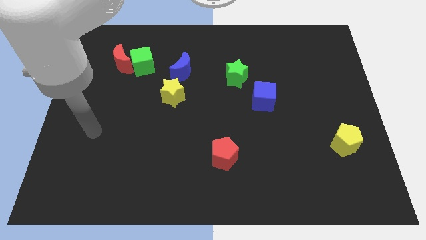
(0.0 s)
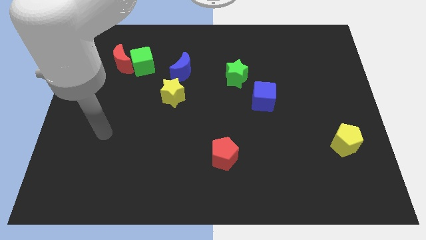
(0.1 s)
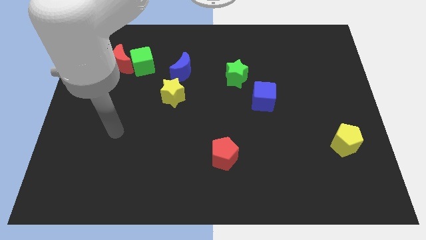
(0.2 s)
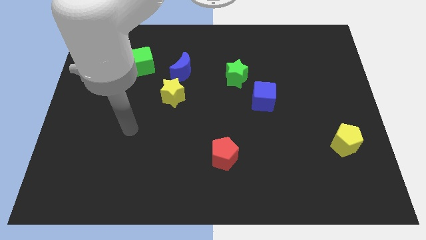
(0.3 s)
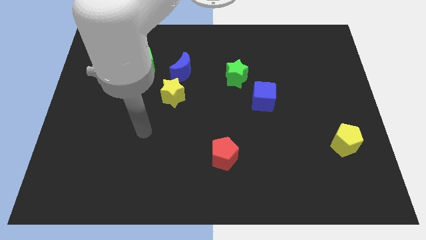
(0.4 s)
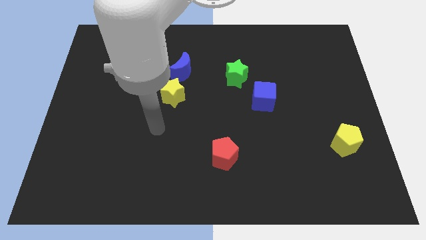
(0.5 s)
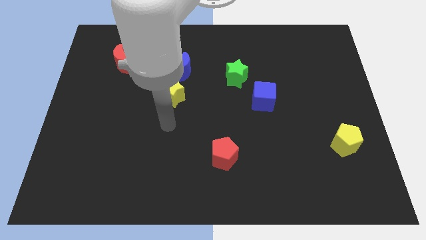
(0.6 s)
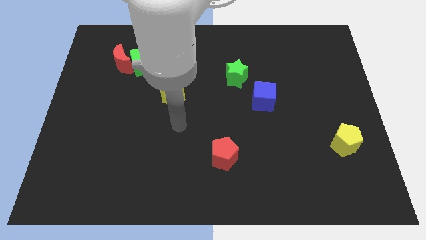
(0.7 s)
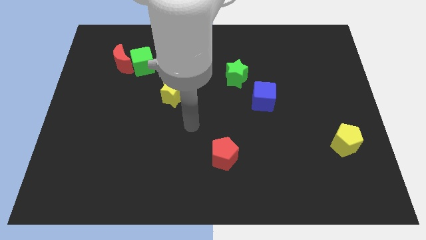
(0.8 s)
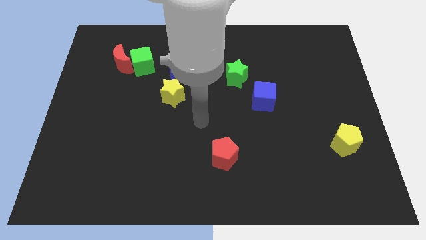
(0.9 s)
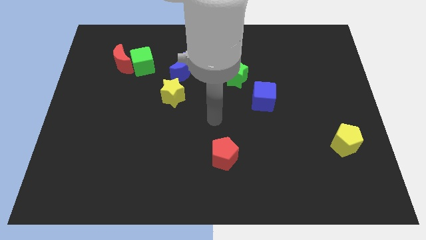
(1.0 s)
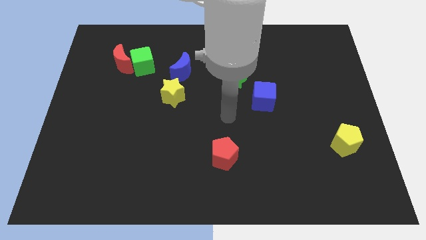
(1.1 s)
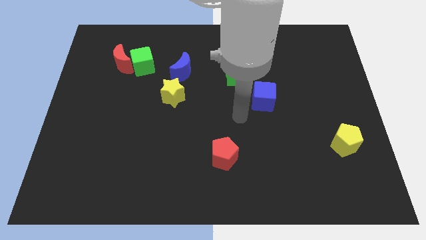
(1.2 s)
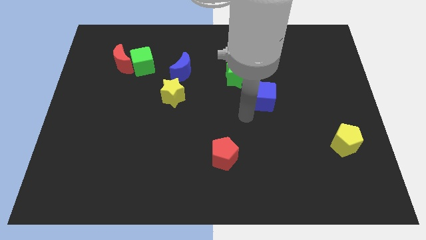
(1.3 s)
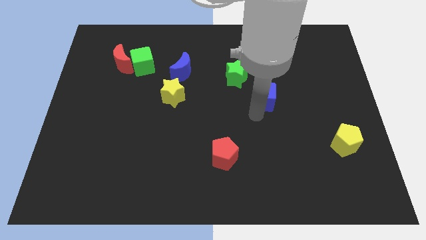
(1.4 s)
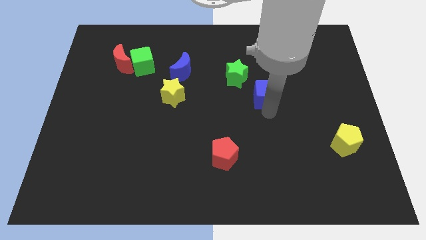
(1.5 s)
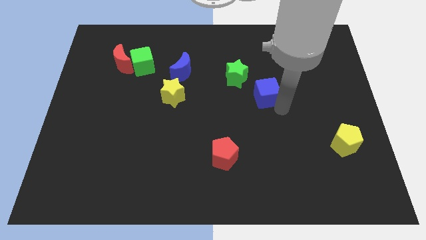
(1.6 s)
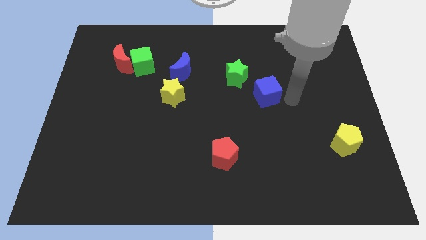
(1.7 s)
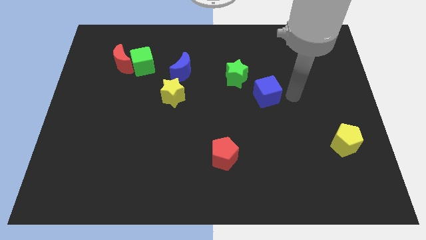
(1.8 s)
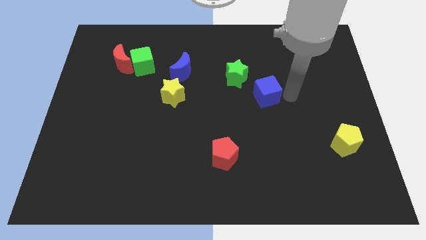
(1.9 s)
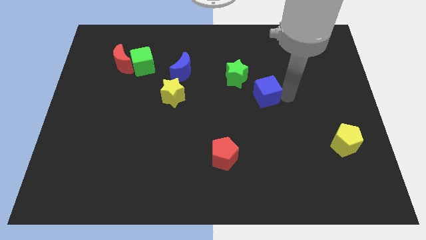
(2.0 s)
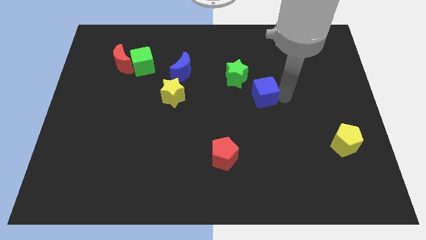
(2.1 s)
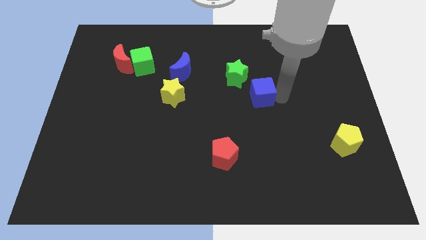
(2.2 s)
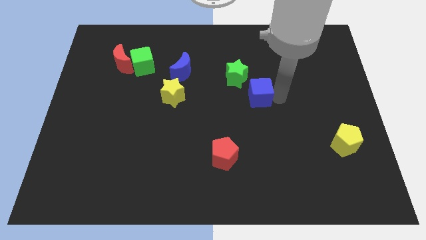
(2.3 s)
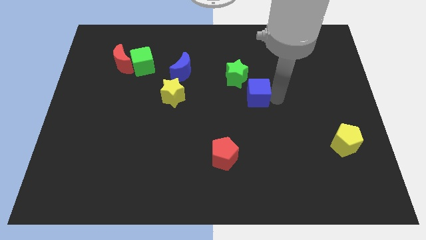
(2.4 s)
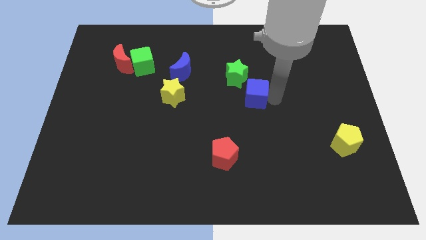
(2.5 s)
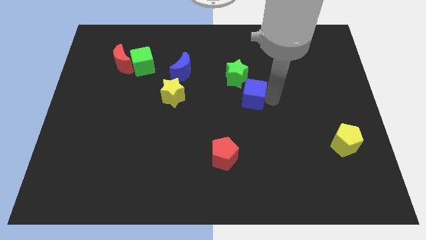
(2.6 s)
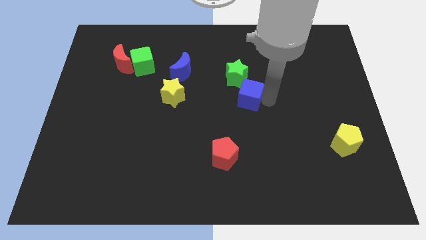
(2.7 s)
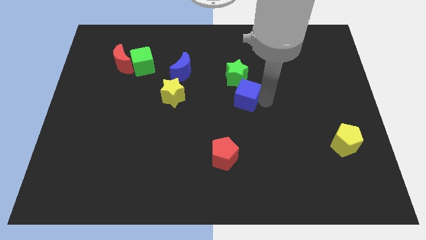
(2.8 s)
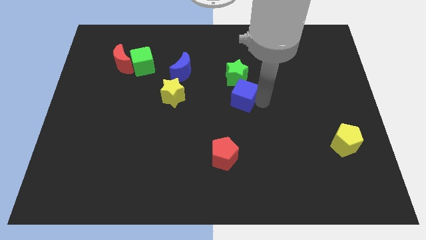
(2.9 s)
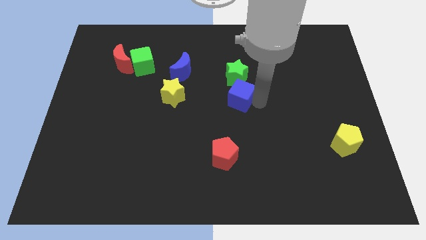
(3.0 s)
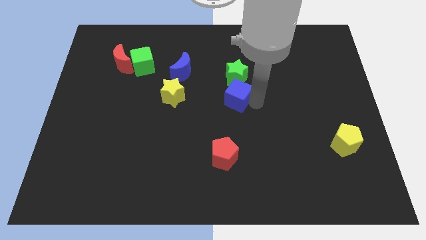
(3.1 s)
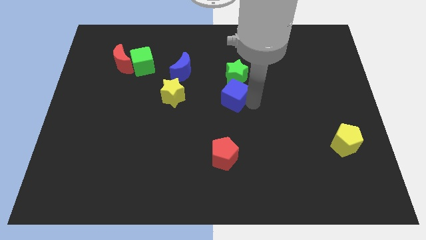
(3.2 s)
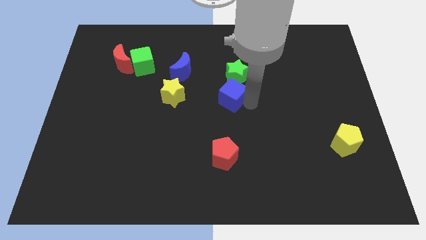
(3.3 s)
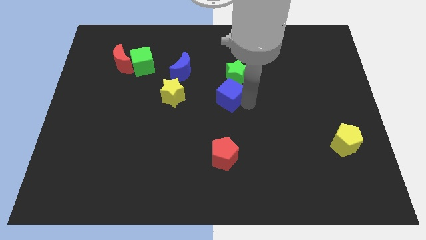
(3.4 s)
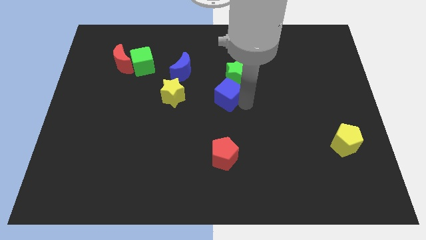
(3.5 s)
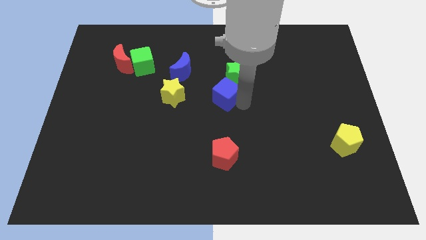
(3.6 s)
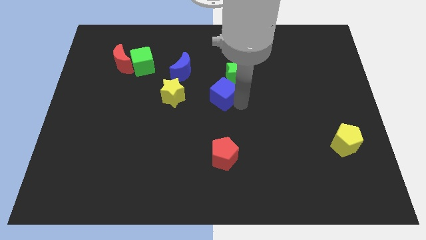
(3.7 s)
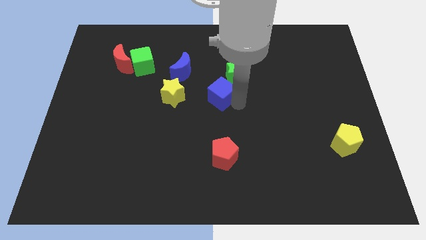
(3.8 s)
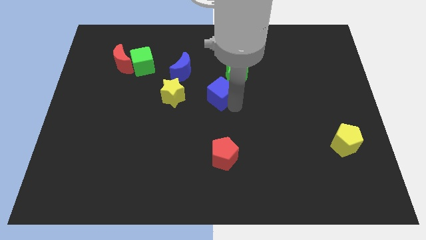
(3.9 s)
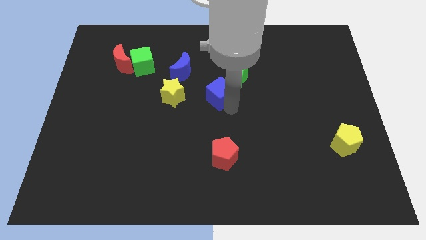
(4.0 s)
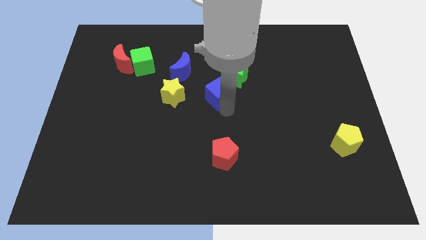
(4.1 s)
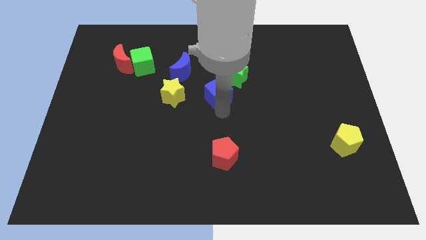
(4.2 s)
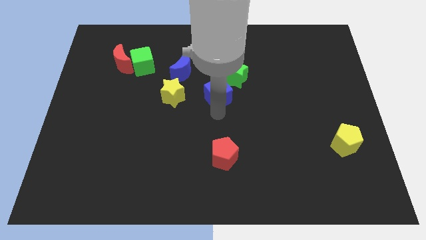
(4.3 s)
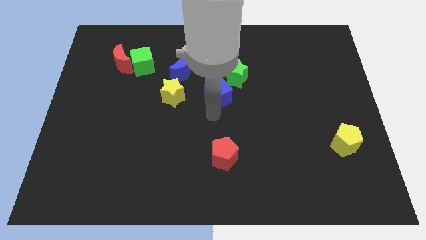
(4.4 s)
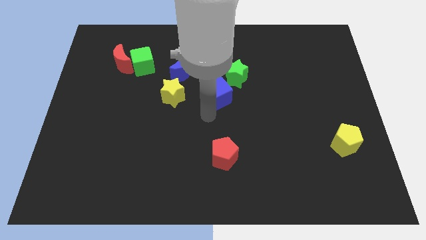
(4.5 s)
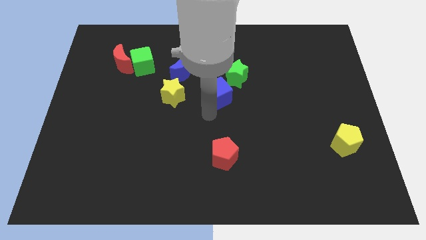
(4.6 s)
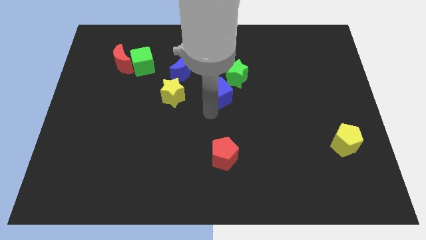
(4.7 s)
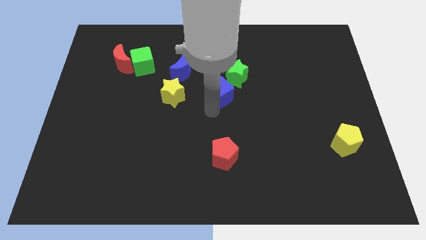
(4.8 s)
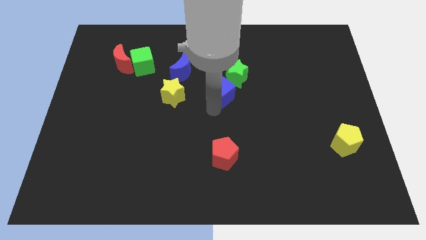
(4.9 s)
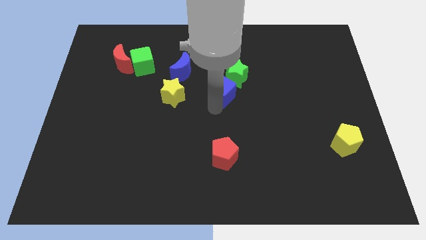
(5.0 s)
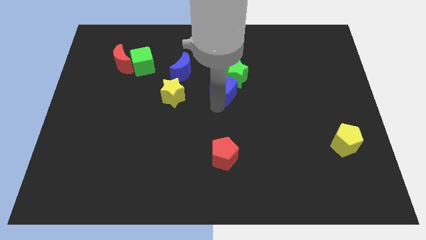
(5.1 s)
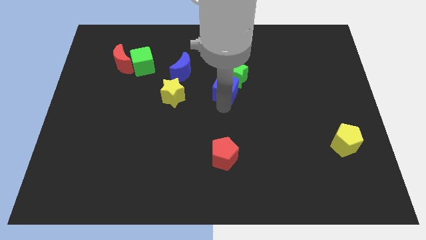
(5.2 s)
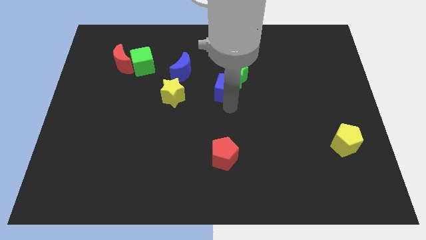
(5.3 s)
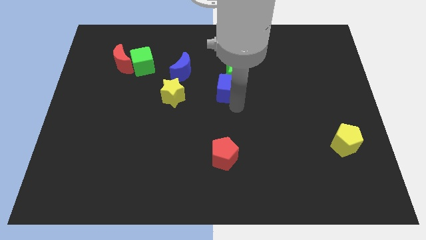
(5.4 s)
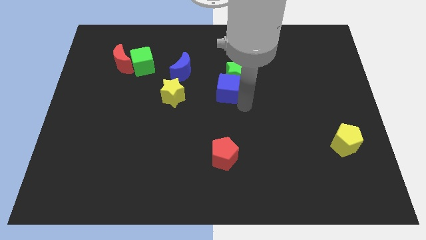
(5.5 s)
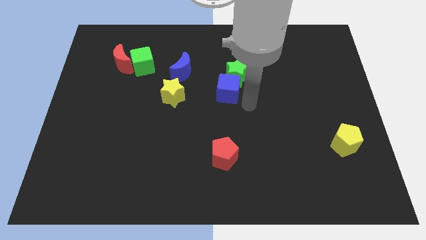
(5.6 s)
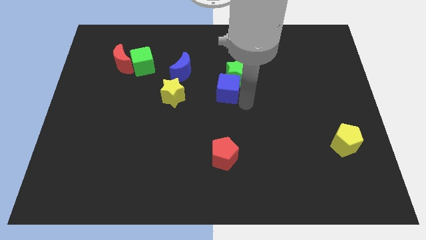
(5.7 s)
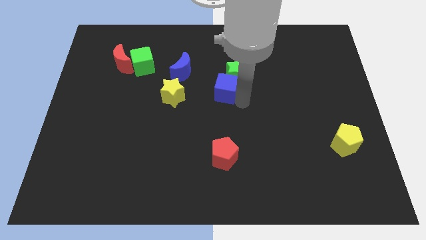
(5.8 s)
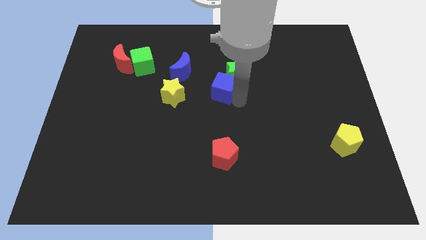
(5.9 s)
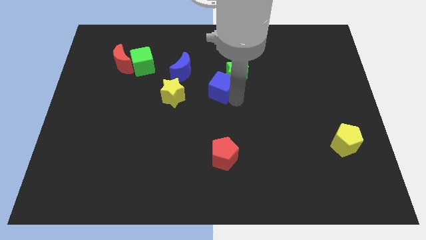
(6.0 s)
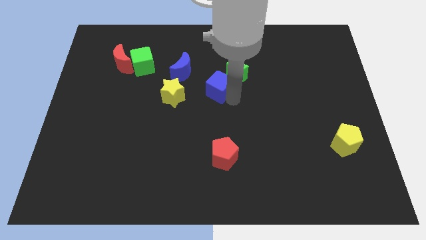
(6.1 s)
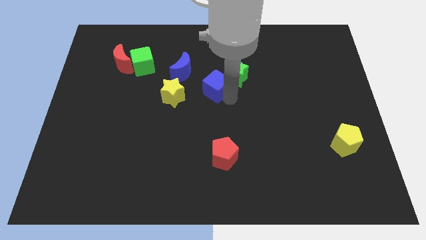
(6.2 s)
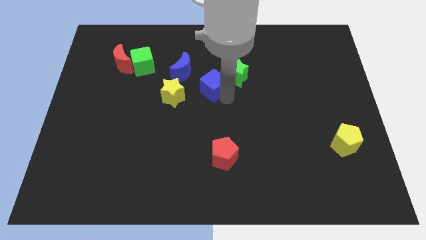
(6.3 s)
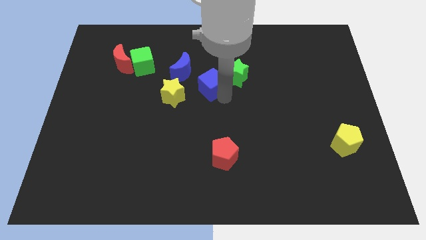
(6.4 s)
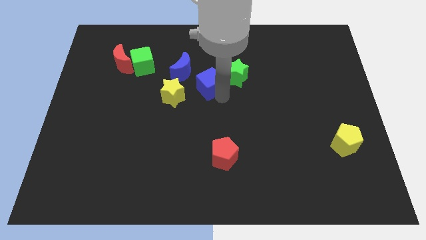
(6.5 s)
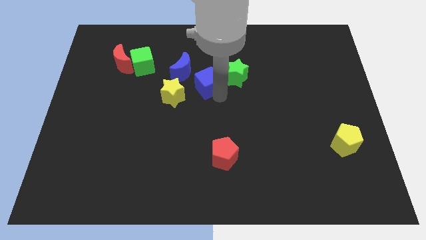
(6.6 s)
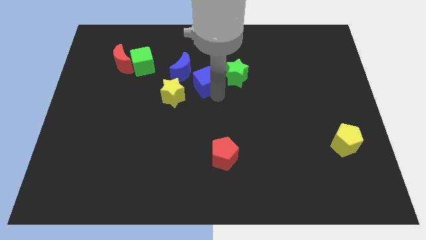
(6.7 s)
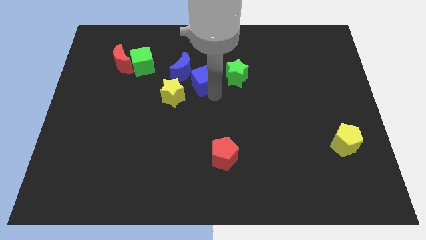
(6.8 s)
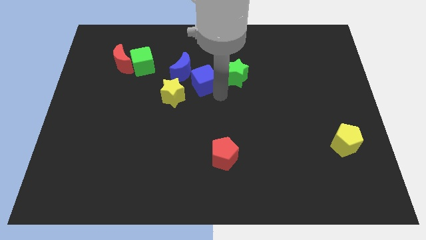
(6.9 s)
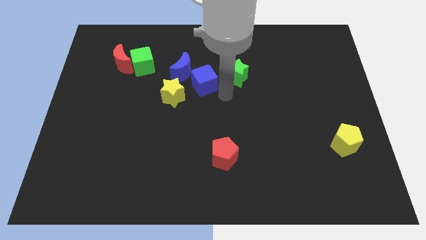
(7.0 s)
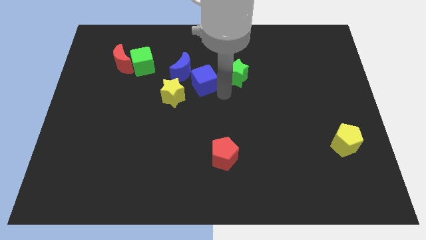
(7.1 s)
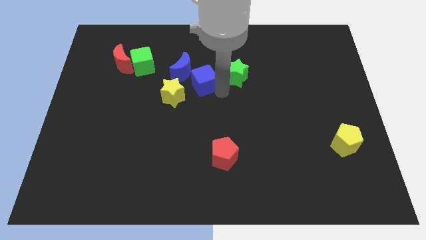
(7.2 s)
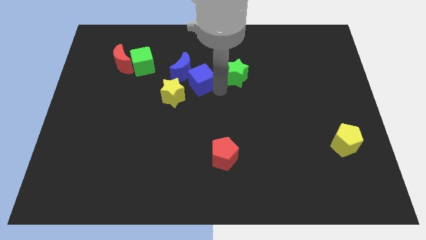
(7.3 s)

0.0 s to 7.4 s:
move the blue cube towards the blue moon
